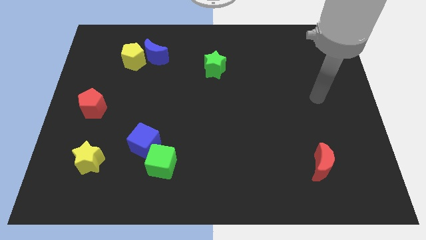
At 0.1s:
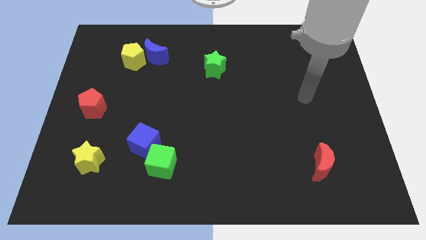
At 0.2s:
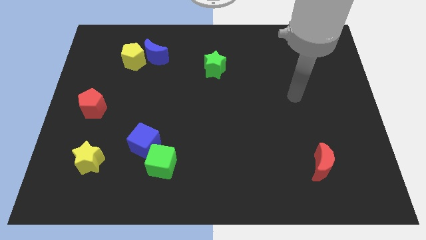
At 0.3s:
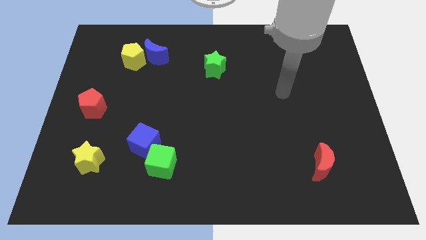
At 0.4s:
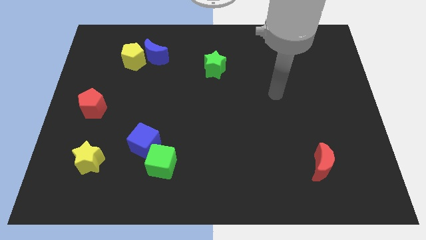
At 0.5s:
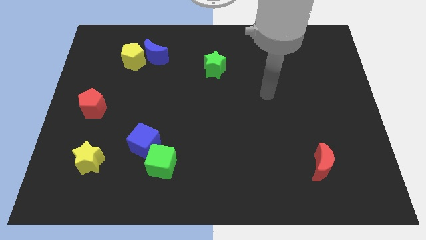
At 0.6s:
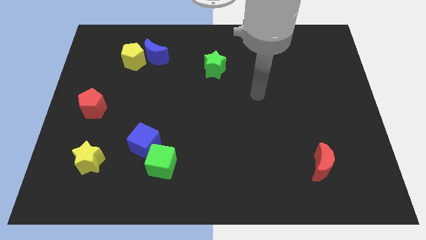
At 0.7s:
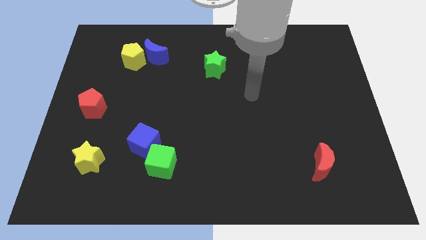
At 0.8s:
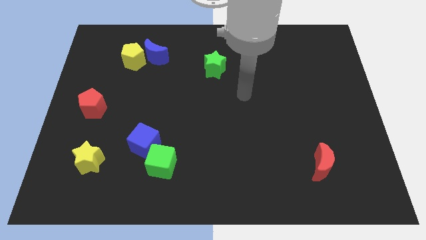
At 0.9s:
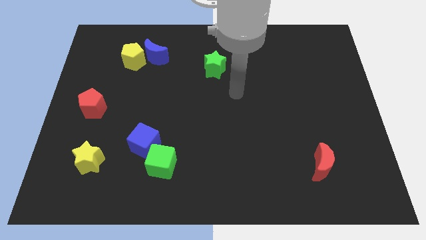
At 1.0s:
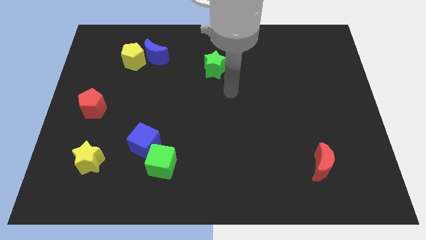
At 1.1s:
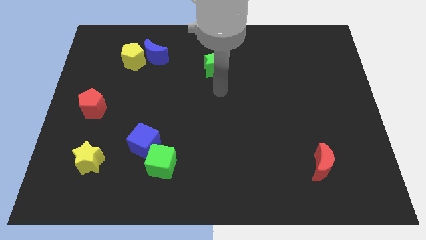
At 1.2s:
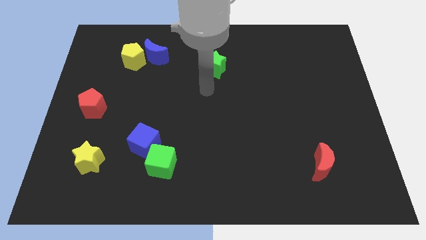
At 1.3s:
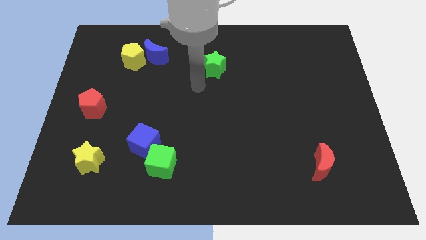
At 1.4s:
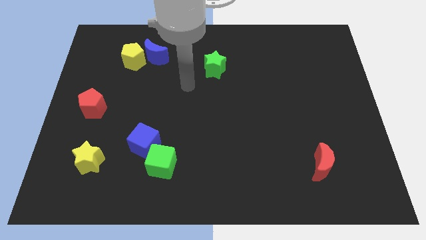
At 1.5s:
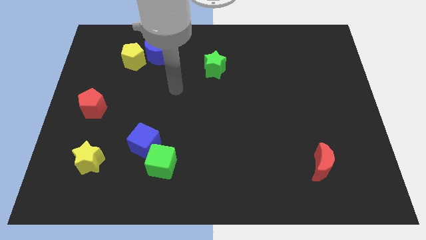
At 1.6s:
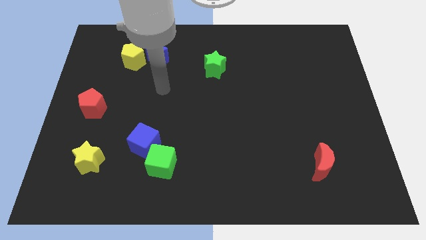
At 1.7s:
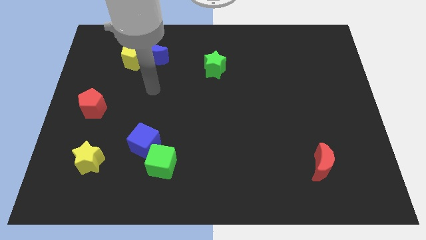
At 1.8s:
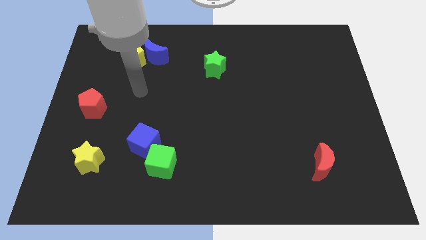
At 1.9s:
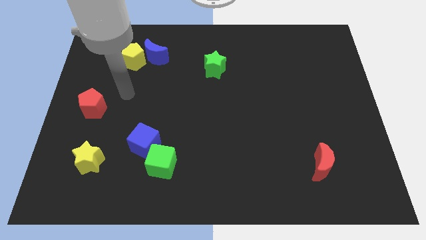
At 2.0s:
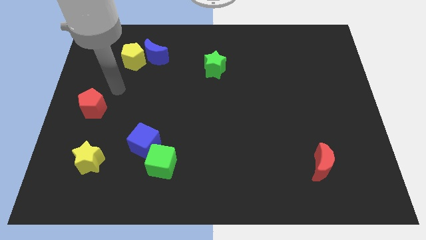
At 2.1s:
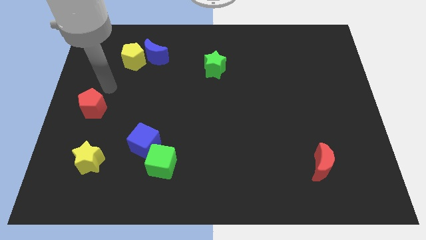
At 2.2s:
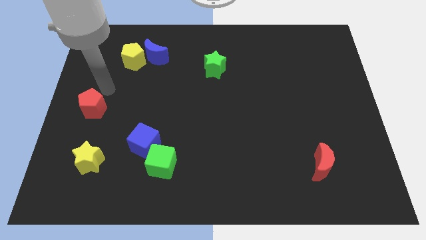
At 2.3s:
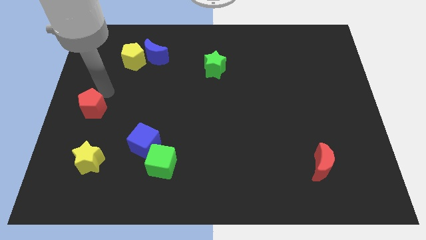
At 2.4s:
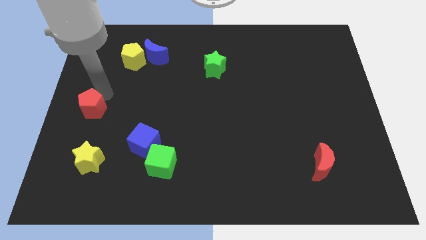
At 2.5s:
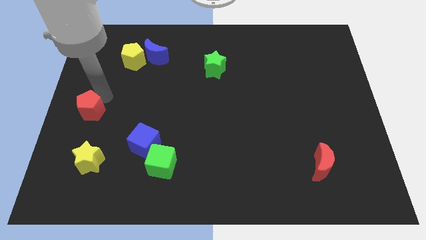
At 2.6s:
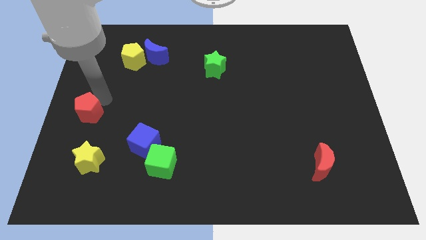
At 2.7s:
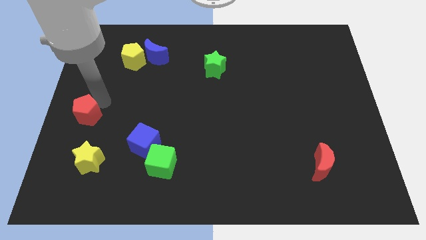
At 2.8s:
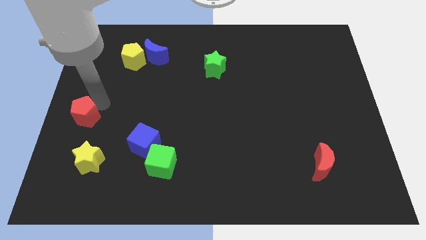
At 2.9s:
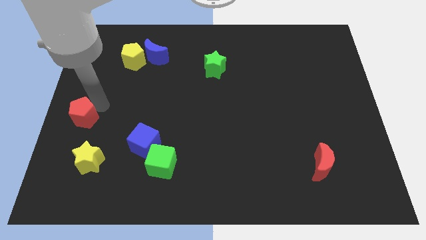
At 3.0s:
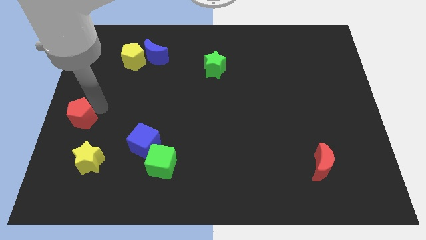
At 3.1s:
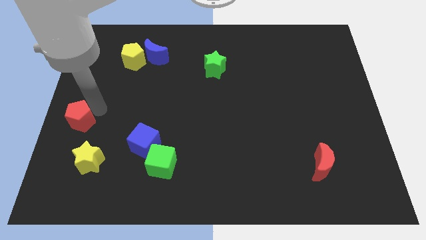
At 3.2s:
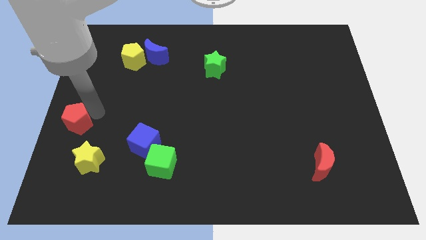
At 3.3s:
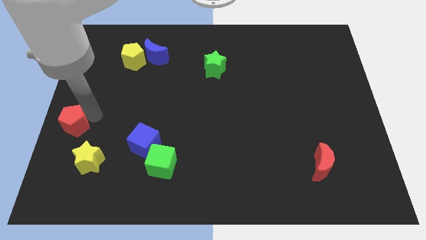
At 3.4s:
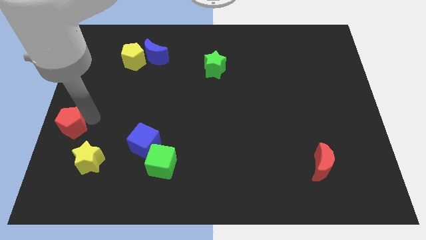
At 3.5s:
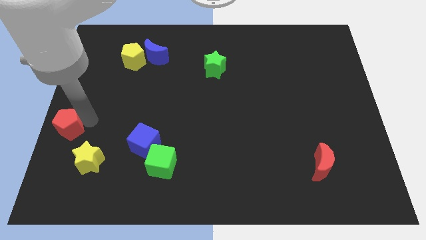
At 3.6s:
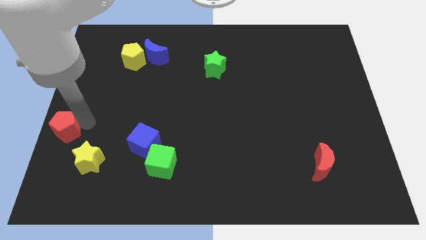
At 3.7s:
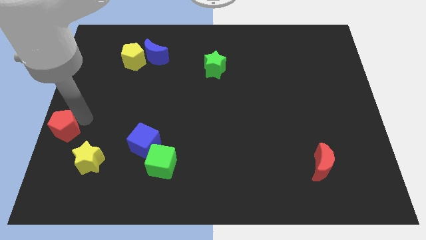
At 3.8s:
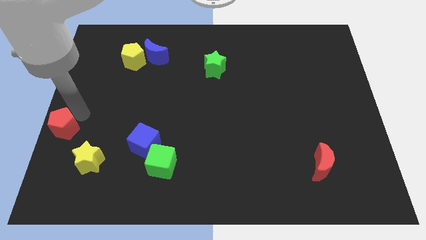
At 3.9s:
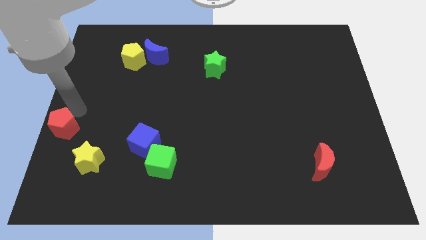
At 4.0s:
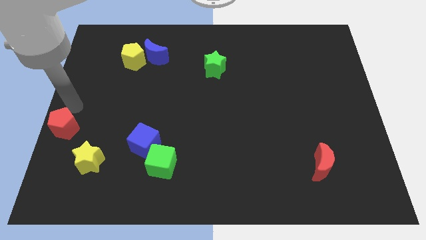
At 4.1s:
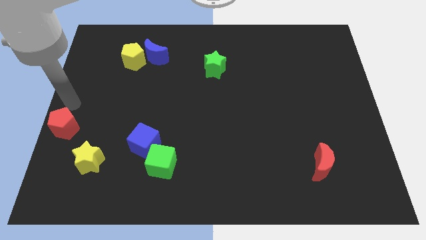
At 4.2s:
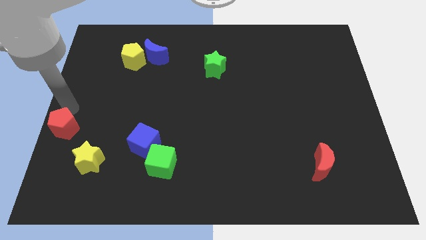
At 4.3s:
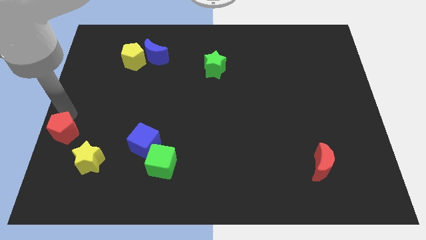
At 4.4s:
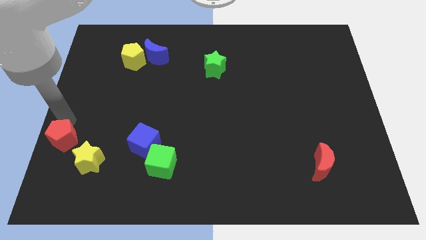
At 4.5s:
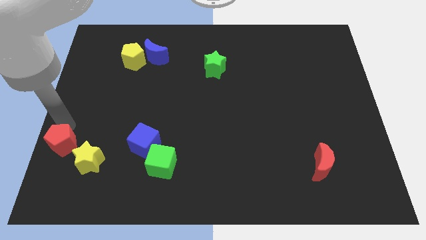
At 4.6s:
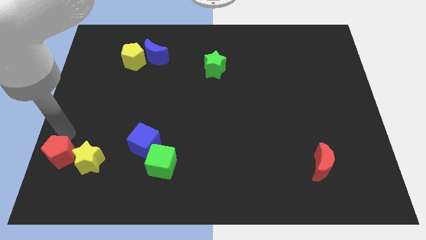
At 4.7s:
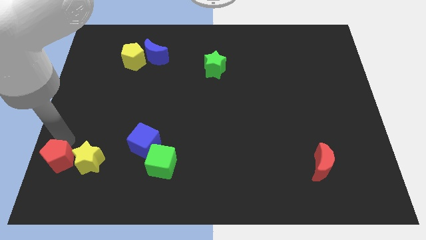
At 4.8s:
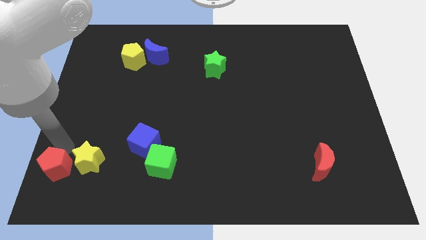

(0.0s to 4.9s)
push the red pentagon to the bottom left

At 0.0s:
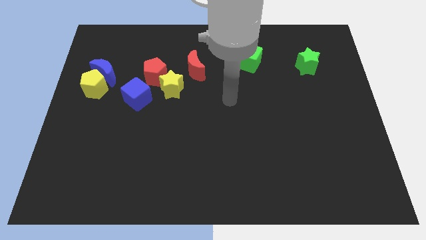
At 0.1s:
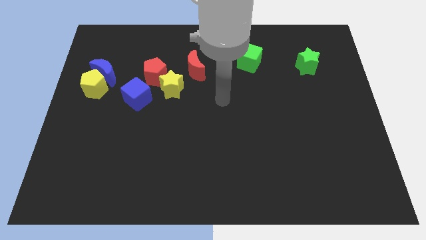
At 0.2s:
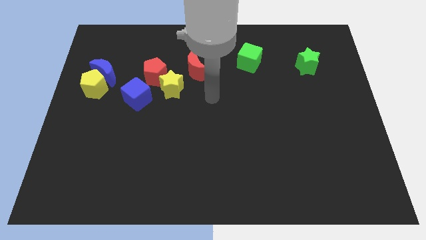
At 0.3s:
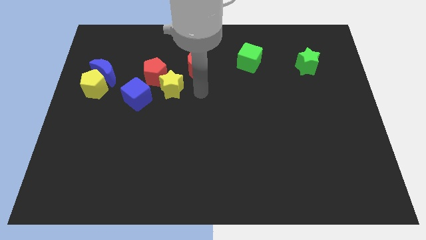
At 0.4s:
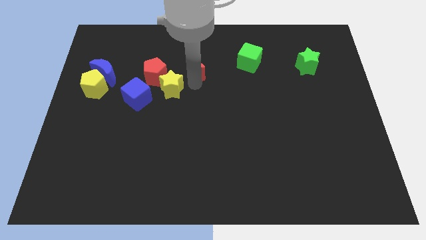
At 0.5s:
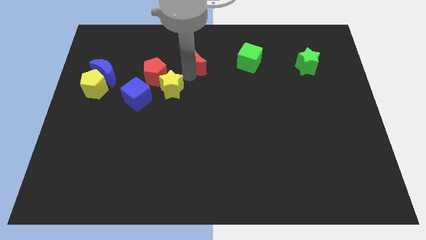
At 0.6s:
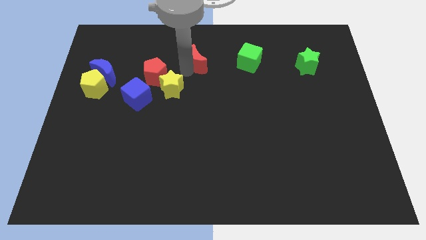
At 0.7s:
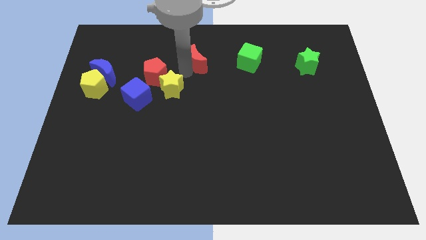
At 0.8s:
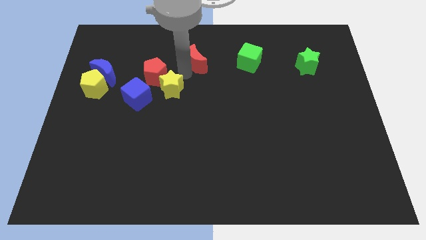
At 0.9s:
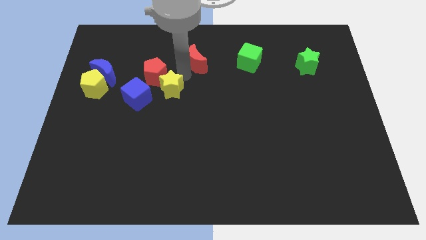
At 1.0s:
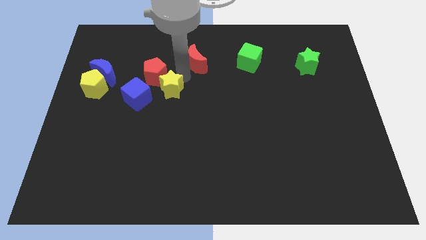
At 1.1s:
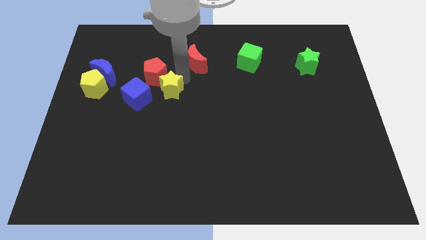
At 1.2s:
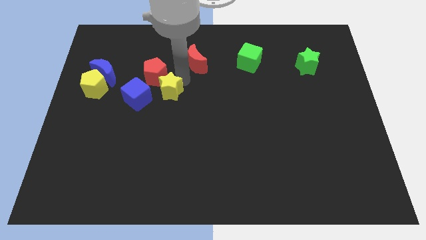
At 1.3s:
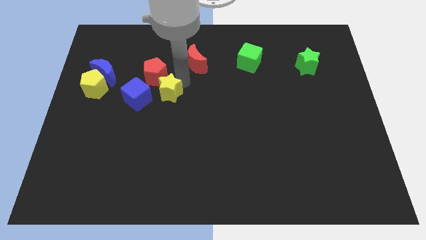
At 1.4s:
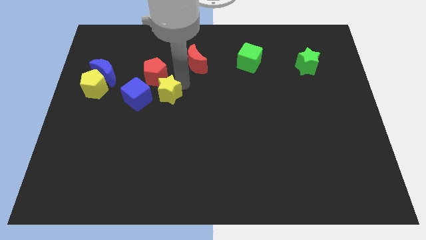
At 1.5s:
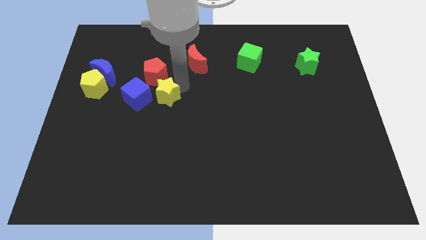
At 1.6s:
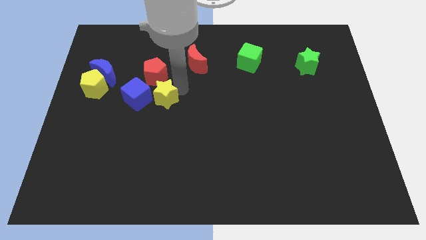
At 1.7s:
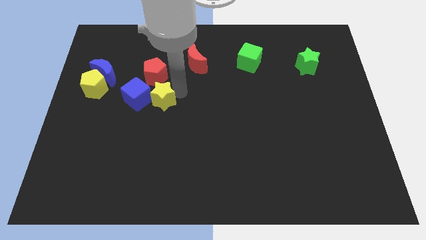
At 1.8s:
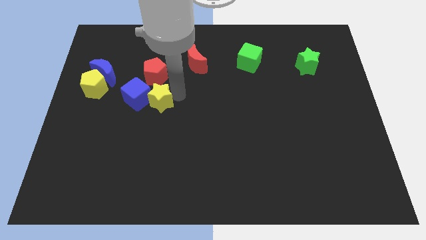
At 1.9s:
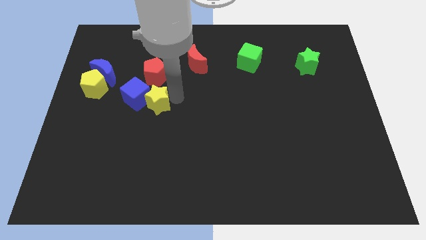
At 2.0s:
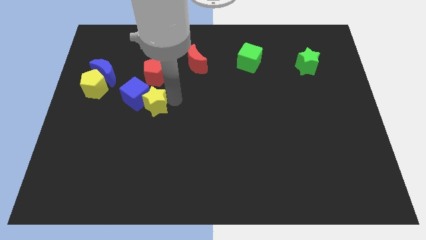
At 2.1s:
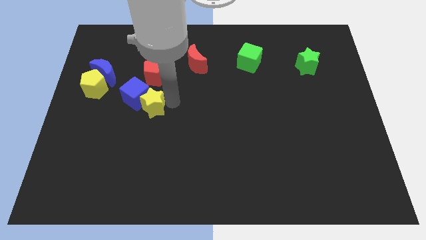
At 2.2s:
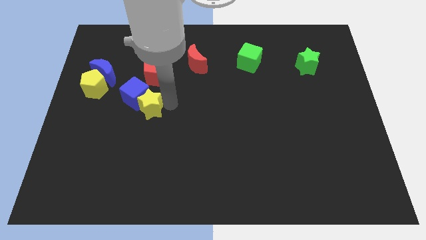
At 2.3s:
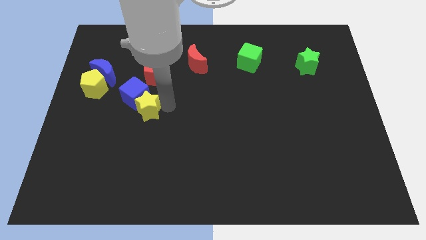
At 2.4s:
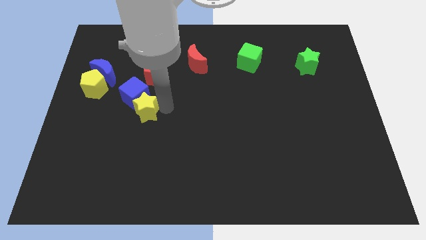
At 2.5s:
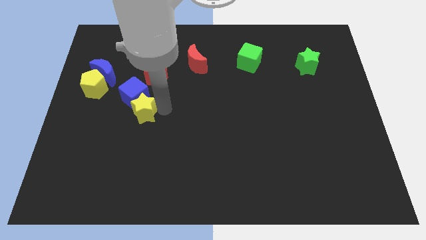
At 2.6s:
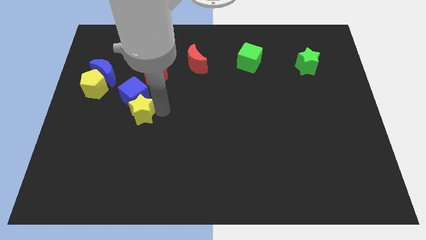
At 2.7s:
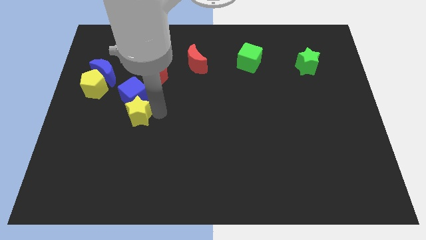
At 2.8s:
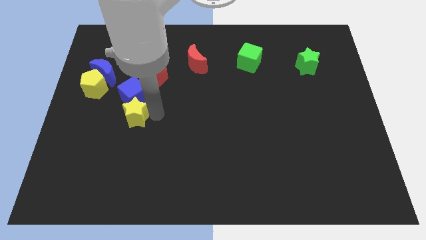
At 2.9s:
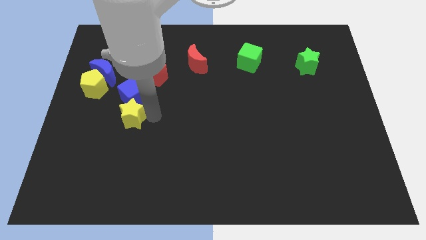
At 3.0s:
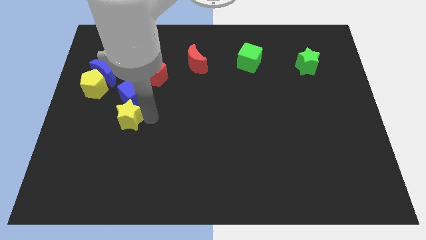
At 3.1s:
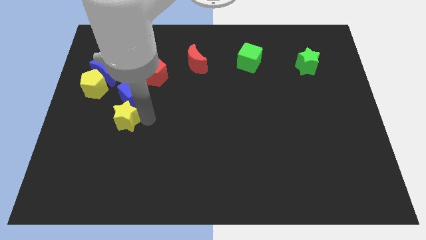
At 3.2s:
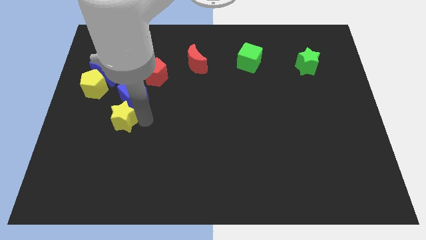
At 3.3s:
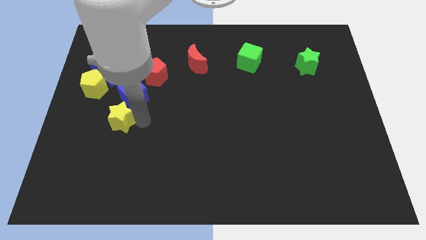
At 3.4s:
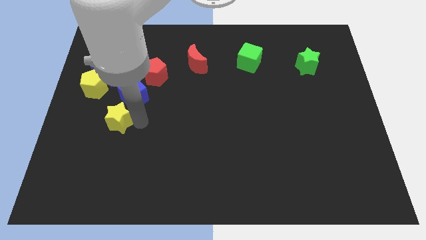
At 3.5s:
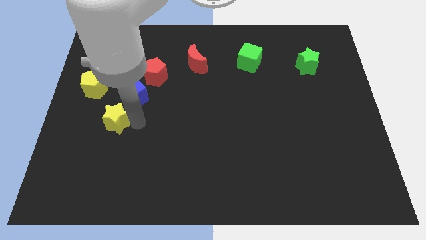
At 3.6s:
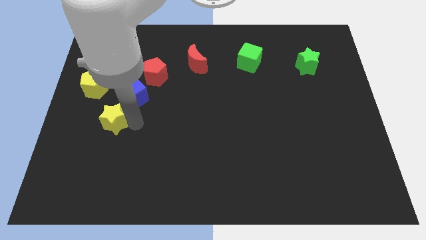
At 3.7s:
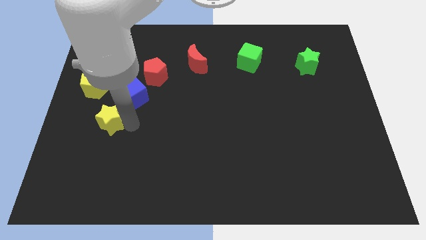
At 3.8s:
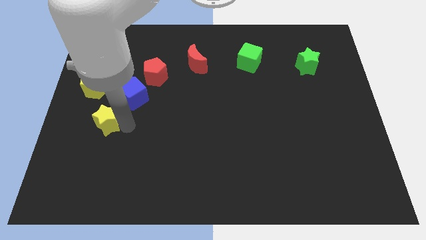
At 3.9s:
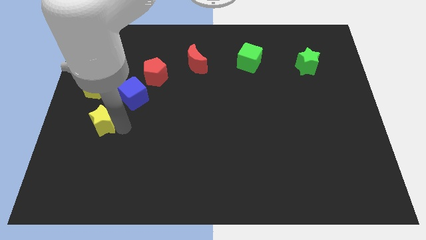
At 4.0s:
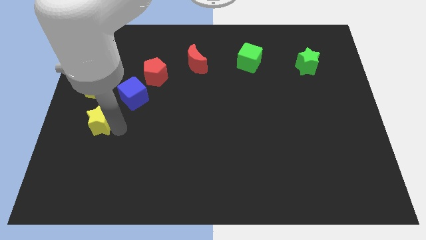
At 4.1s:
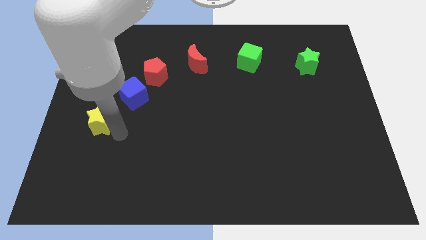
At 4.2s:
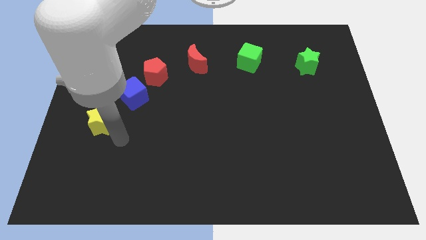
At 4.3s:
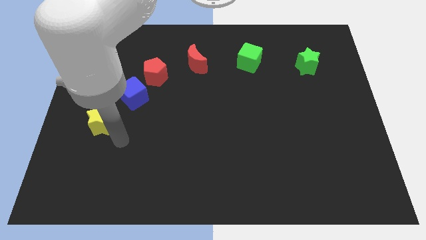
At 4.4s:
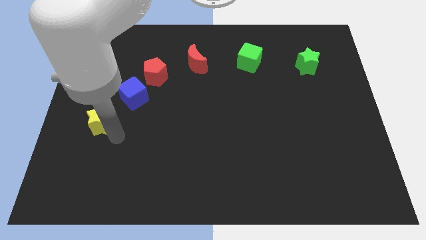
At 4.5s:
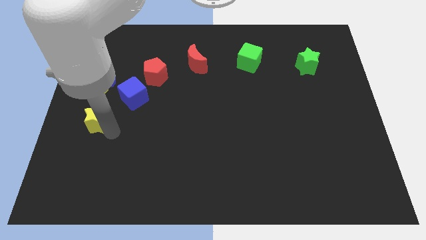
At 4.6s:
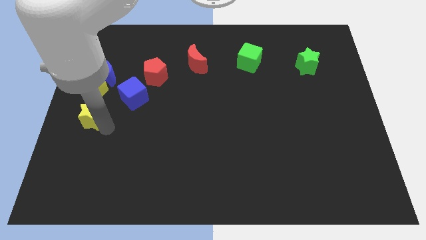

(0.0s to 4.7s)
push the yellow star to the center left
